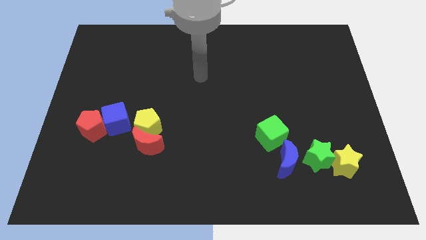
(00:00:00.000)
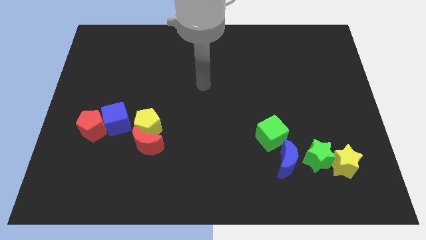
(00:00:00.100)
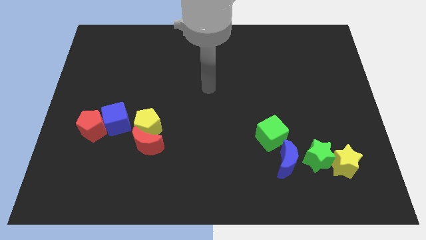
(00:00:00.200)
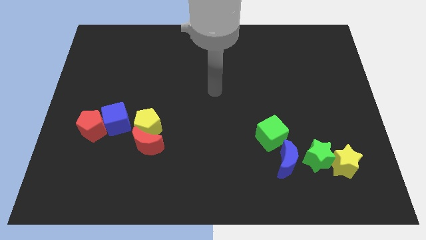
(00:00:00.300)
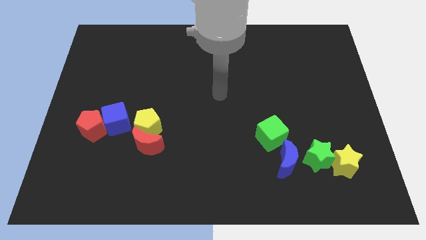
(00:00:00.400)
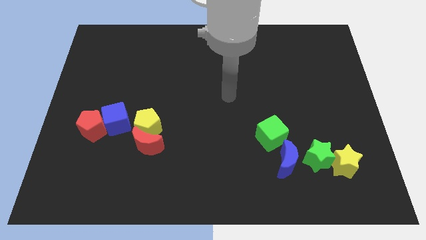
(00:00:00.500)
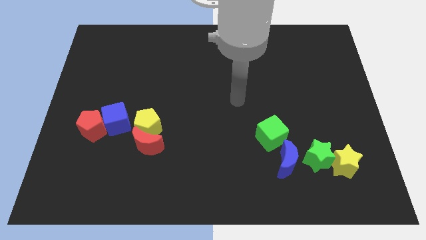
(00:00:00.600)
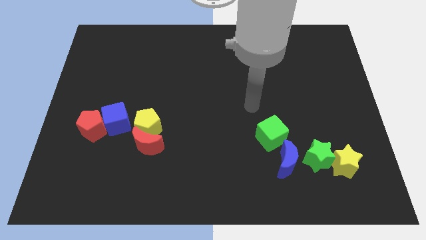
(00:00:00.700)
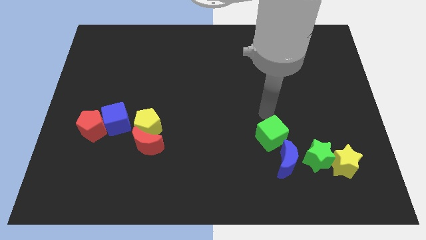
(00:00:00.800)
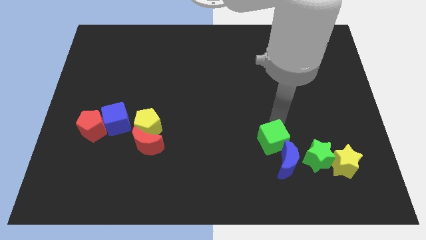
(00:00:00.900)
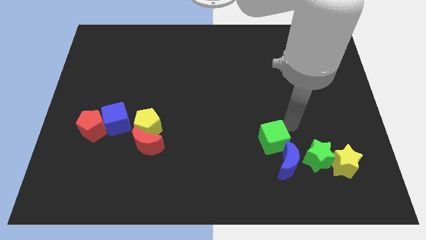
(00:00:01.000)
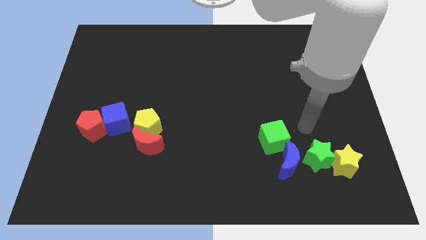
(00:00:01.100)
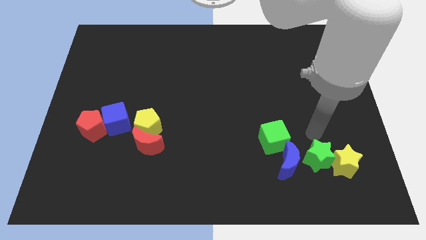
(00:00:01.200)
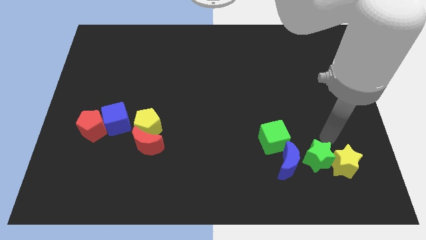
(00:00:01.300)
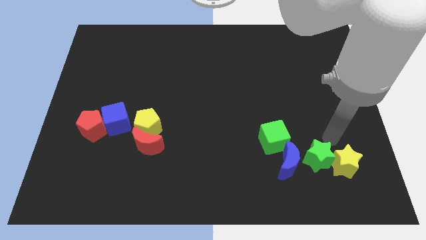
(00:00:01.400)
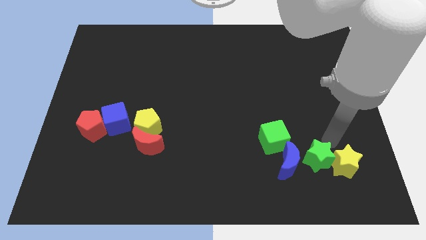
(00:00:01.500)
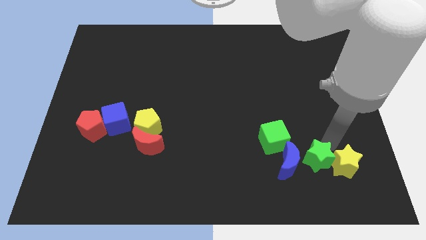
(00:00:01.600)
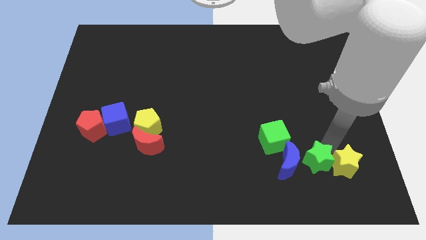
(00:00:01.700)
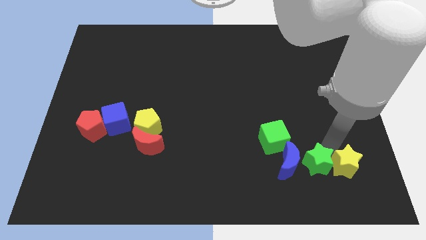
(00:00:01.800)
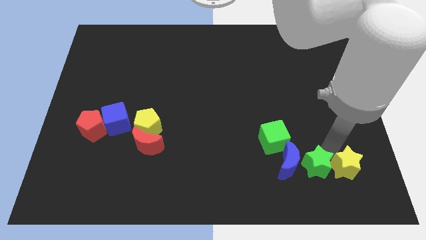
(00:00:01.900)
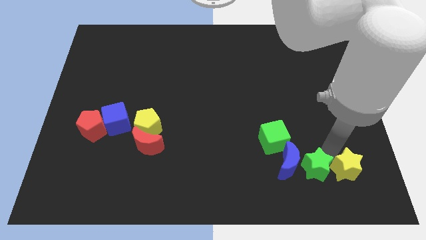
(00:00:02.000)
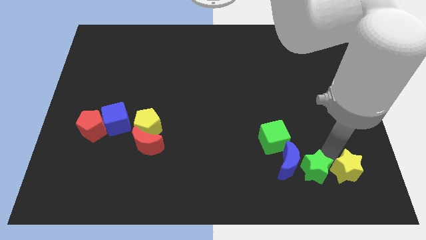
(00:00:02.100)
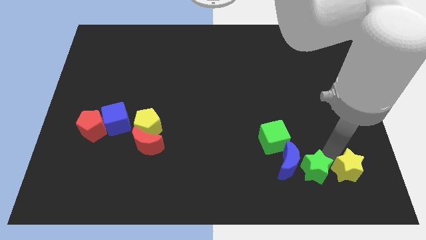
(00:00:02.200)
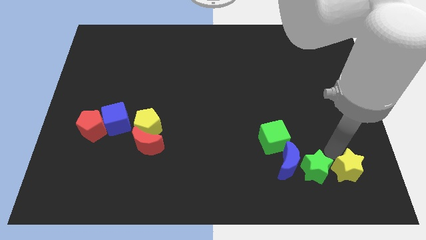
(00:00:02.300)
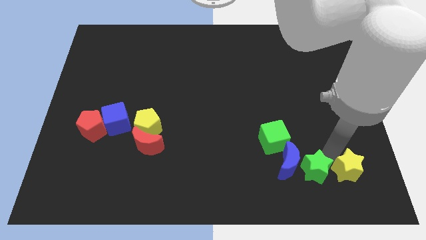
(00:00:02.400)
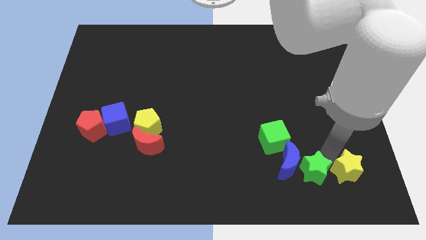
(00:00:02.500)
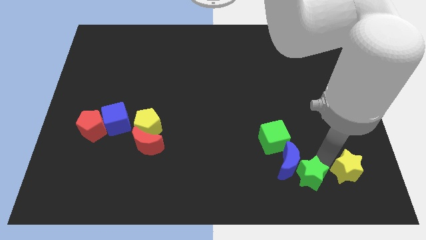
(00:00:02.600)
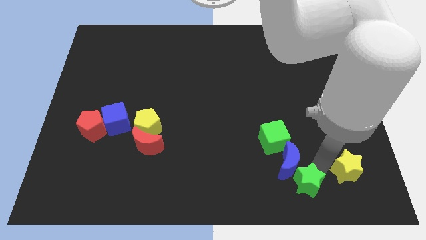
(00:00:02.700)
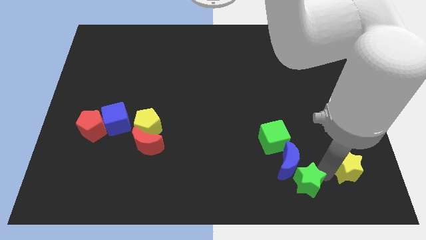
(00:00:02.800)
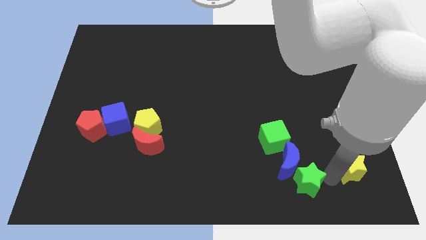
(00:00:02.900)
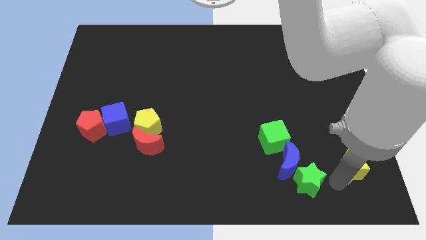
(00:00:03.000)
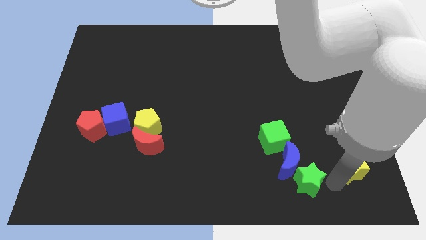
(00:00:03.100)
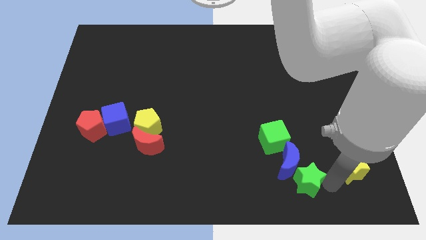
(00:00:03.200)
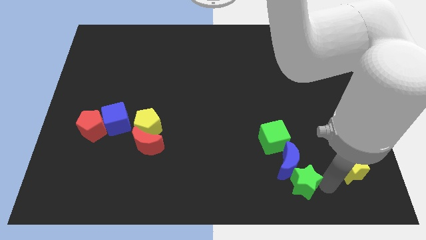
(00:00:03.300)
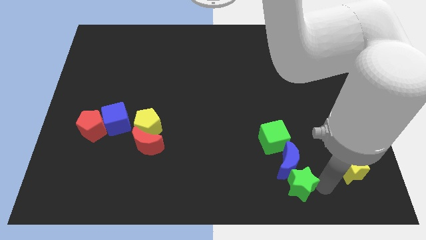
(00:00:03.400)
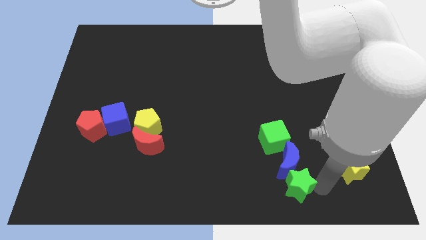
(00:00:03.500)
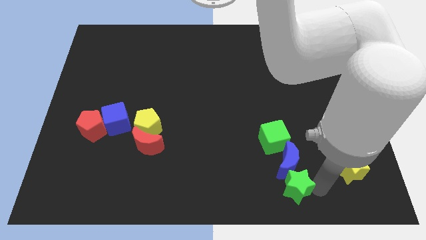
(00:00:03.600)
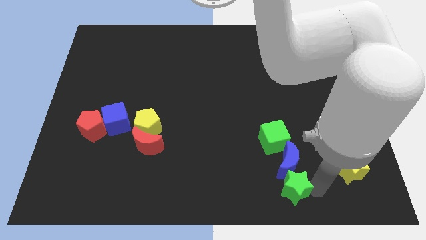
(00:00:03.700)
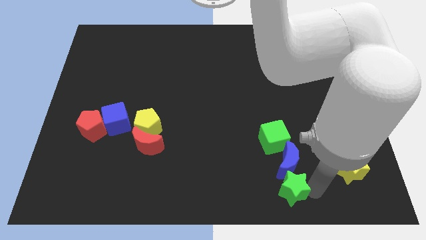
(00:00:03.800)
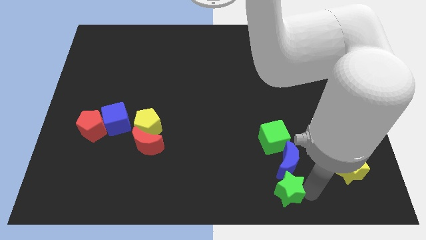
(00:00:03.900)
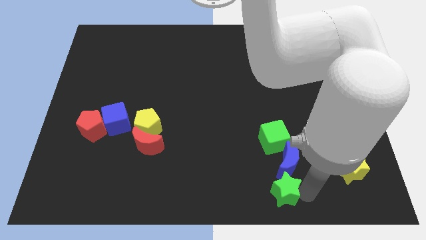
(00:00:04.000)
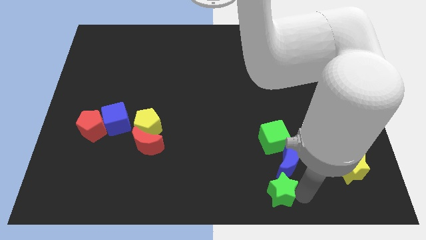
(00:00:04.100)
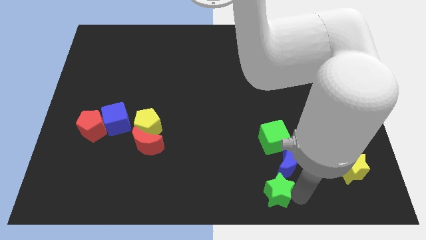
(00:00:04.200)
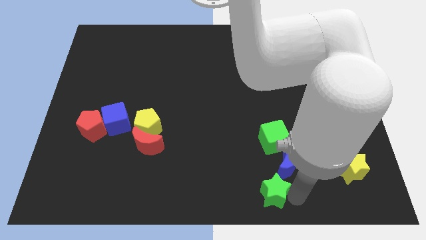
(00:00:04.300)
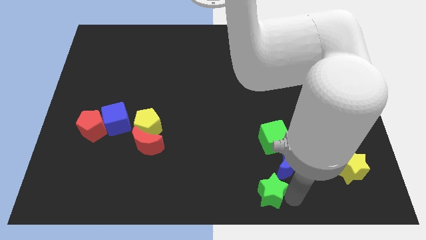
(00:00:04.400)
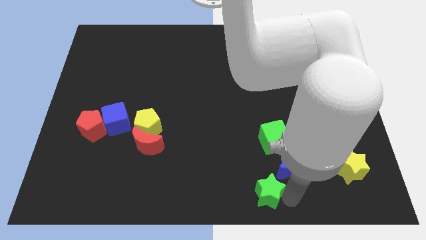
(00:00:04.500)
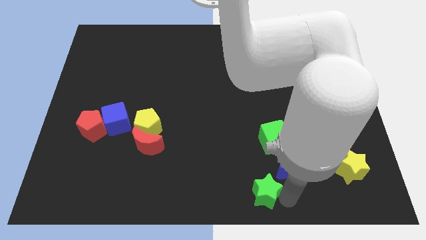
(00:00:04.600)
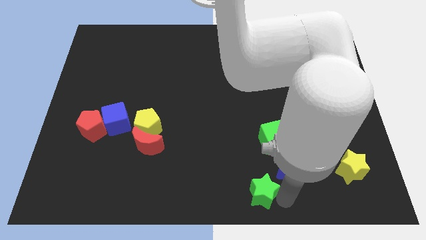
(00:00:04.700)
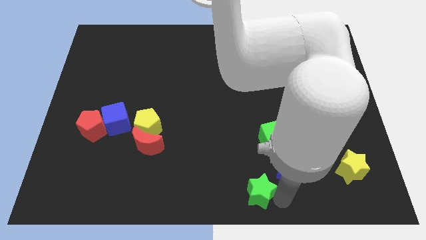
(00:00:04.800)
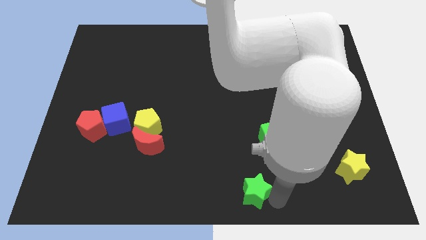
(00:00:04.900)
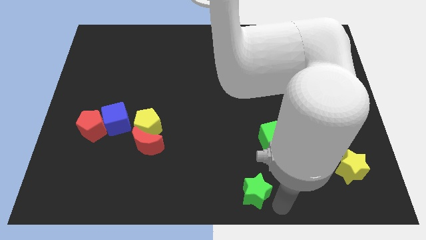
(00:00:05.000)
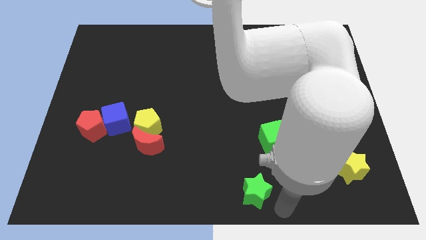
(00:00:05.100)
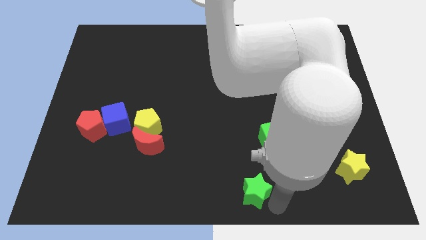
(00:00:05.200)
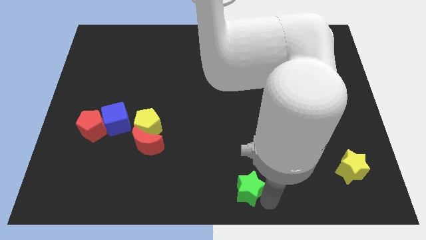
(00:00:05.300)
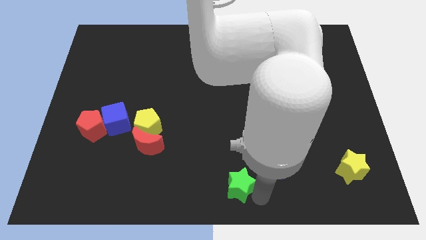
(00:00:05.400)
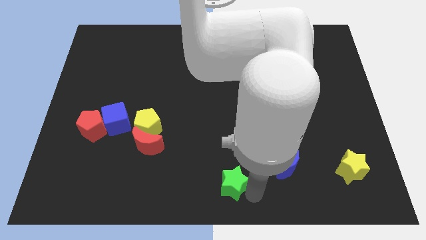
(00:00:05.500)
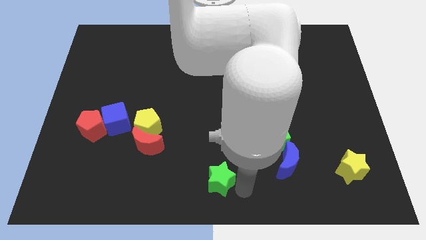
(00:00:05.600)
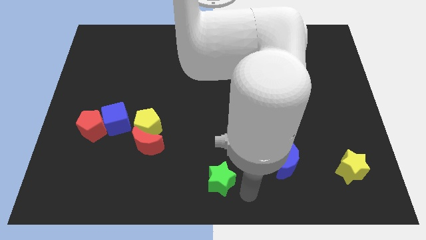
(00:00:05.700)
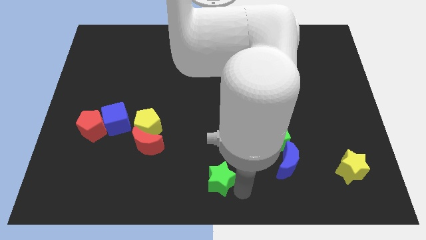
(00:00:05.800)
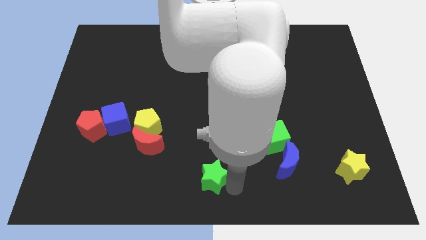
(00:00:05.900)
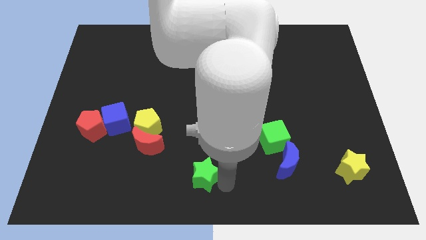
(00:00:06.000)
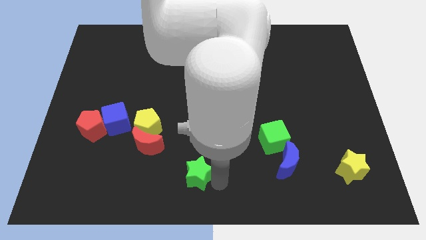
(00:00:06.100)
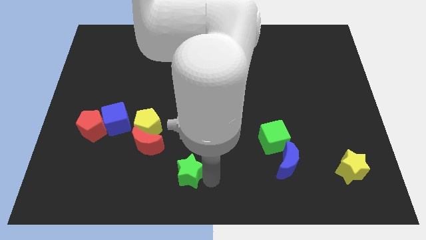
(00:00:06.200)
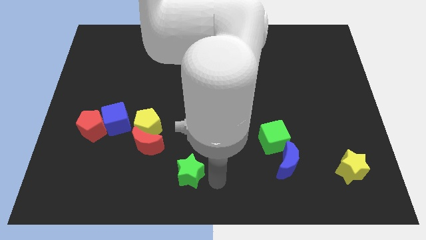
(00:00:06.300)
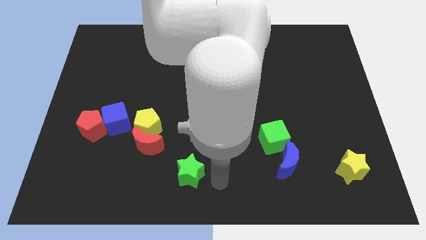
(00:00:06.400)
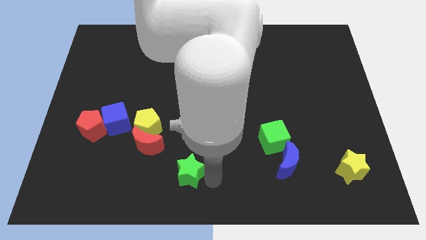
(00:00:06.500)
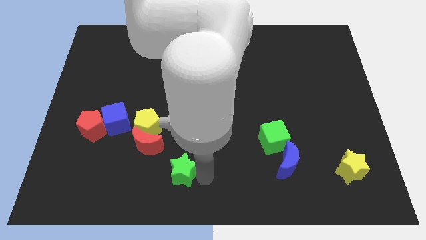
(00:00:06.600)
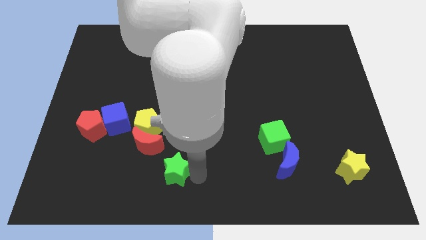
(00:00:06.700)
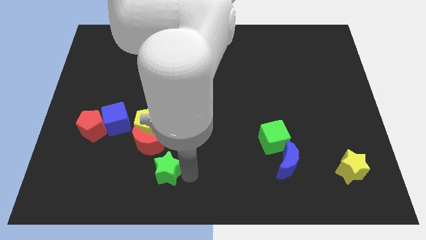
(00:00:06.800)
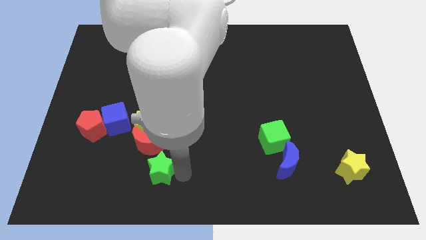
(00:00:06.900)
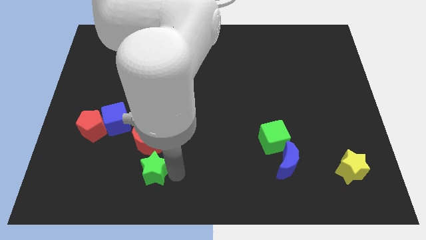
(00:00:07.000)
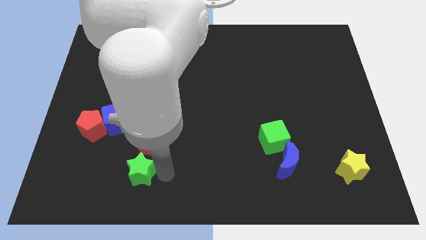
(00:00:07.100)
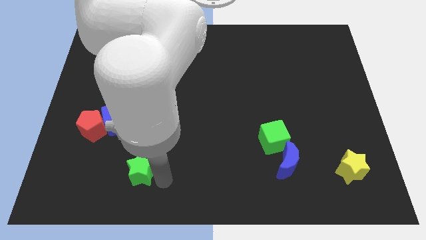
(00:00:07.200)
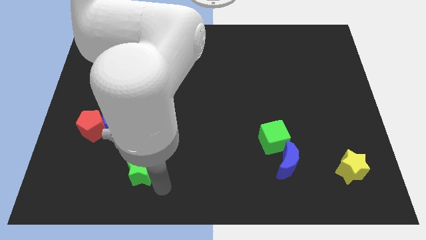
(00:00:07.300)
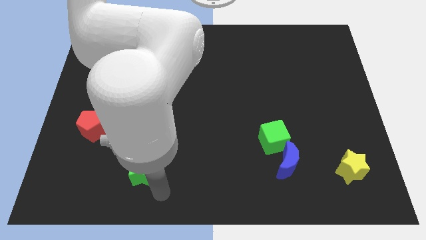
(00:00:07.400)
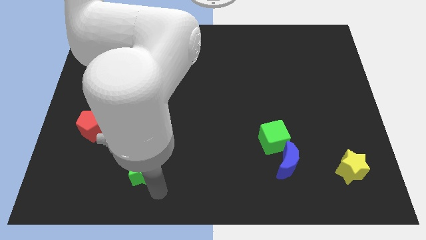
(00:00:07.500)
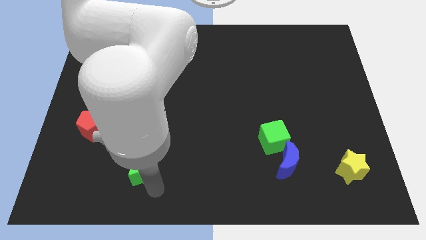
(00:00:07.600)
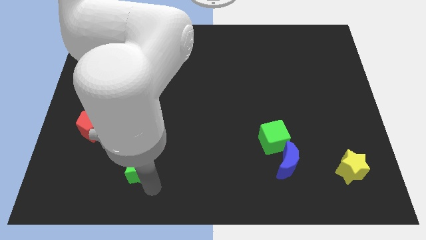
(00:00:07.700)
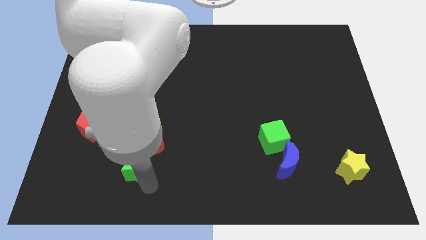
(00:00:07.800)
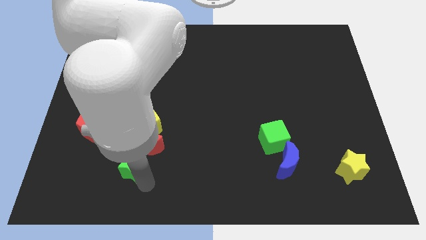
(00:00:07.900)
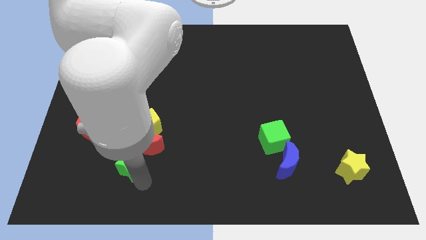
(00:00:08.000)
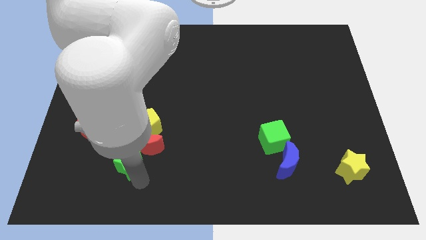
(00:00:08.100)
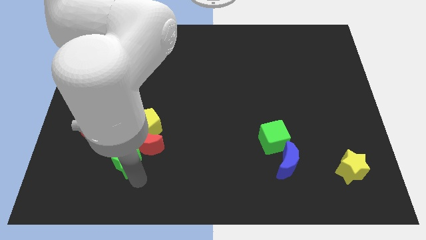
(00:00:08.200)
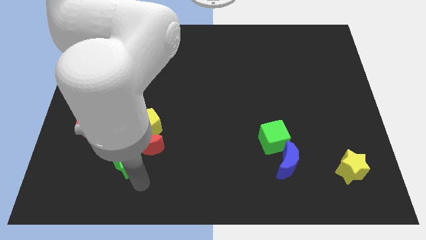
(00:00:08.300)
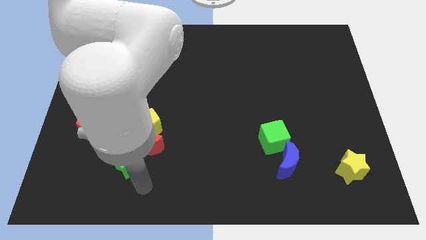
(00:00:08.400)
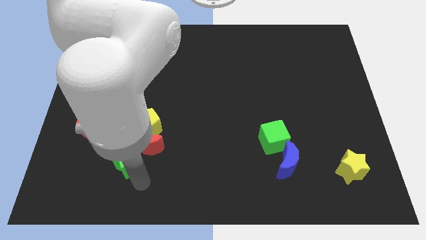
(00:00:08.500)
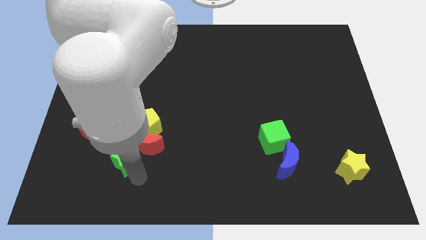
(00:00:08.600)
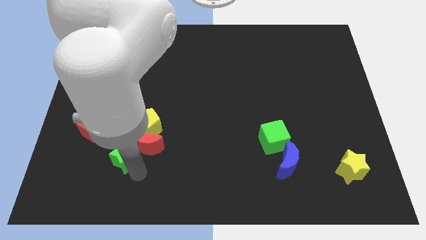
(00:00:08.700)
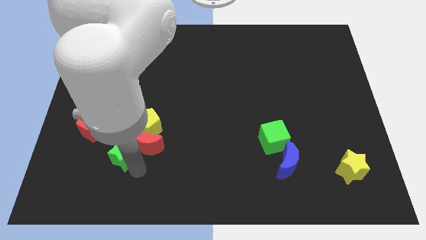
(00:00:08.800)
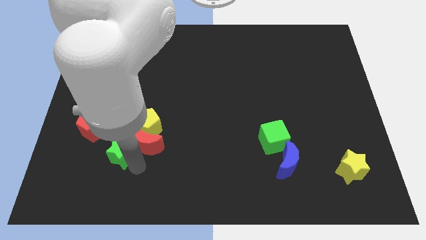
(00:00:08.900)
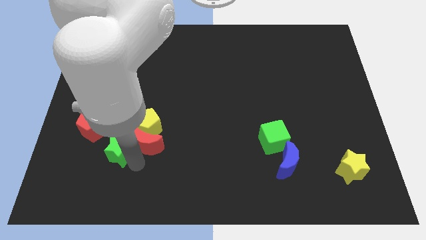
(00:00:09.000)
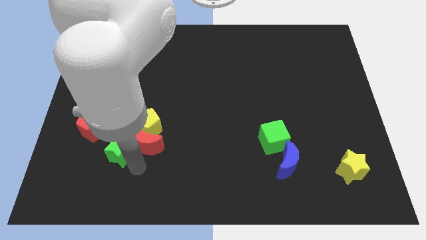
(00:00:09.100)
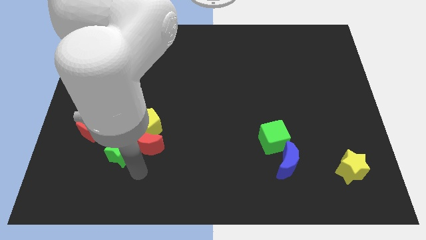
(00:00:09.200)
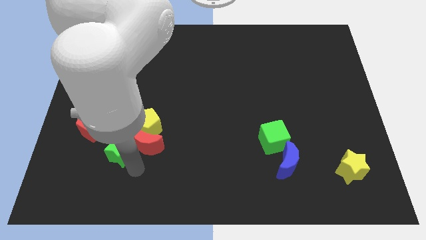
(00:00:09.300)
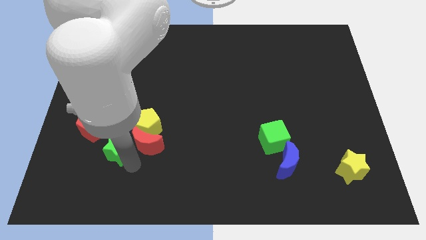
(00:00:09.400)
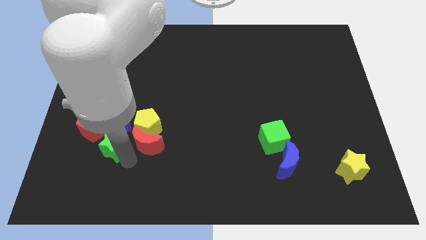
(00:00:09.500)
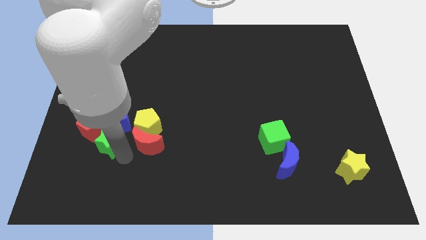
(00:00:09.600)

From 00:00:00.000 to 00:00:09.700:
move the green star to the red pentagon
